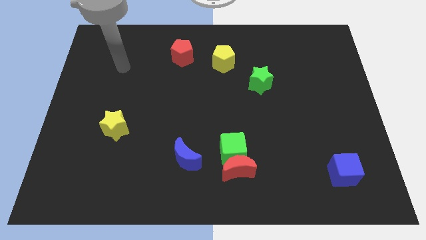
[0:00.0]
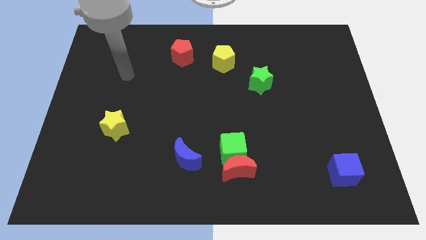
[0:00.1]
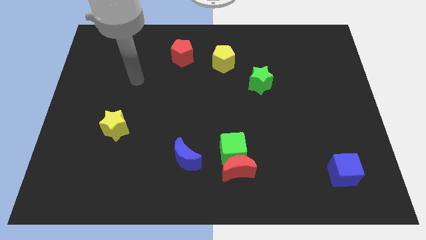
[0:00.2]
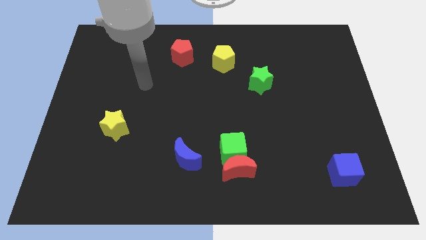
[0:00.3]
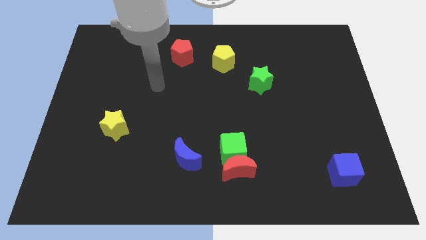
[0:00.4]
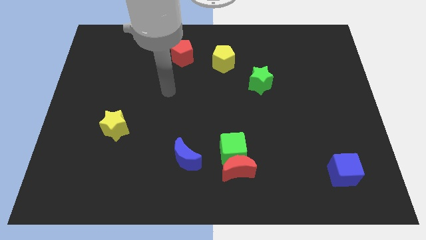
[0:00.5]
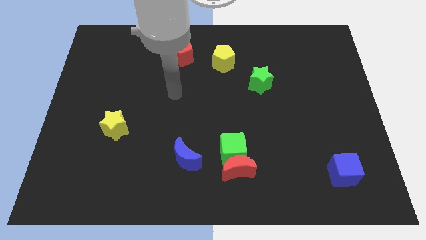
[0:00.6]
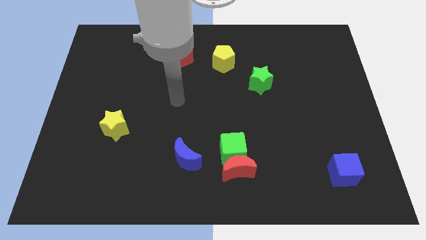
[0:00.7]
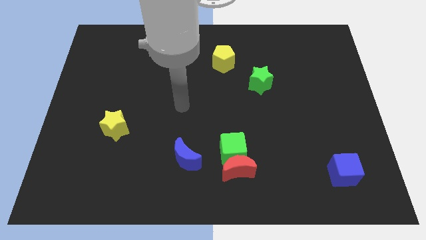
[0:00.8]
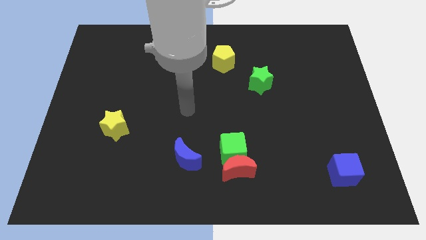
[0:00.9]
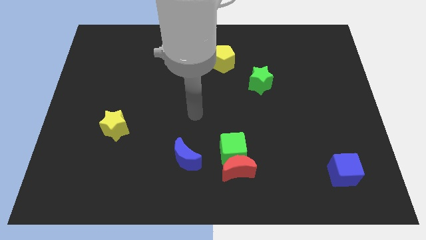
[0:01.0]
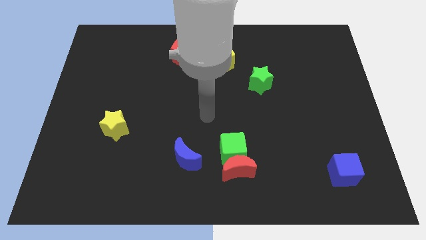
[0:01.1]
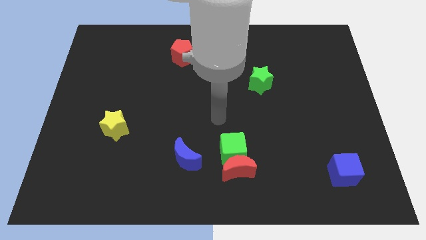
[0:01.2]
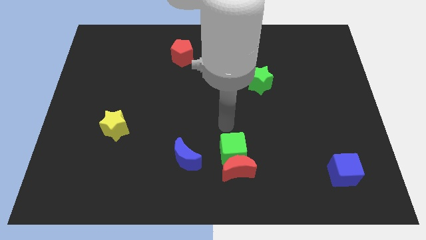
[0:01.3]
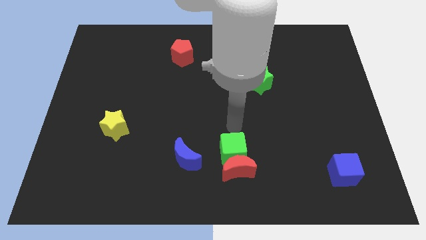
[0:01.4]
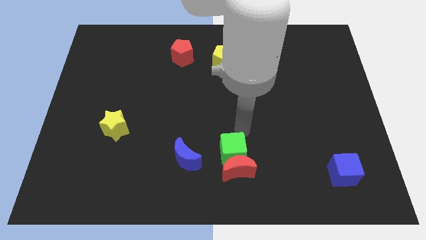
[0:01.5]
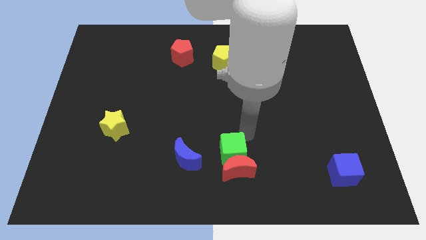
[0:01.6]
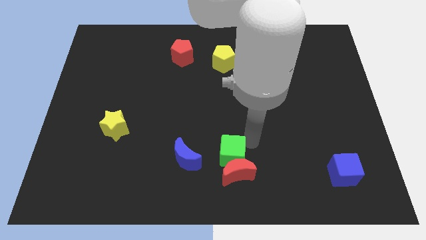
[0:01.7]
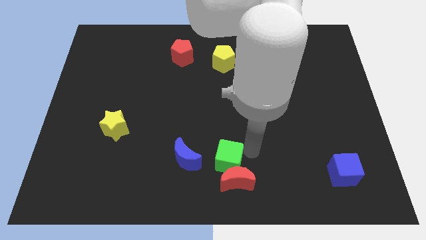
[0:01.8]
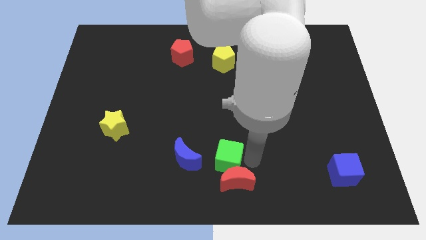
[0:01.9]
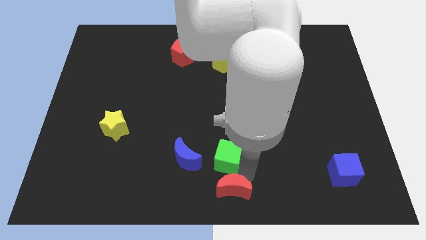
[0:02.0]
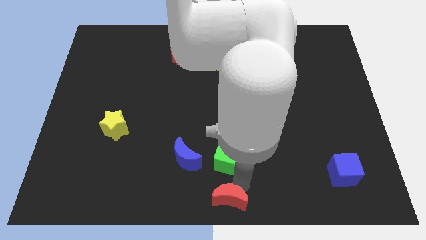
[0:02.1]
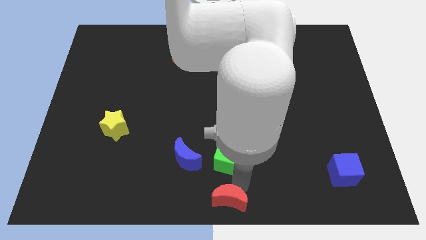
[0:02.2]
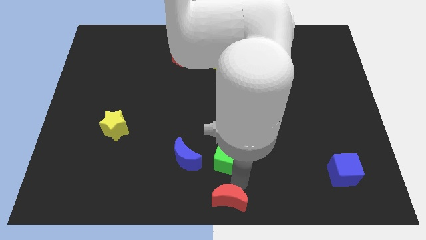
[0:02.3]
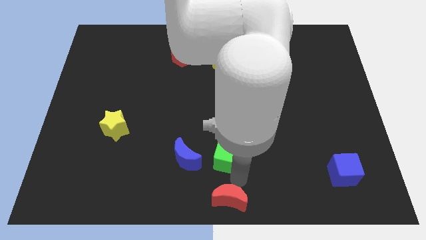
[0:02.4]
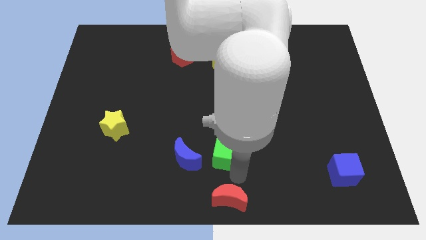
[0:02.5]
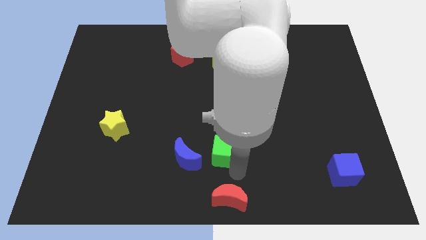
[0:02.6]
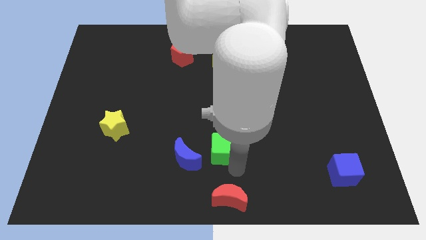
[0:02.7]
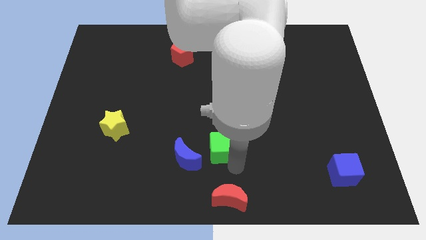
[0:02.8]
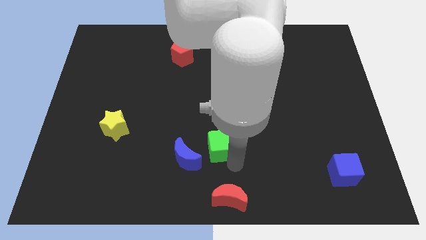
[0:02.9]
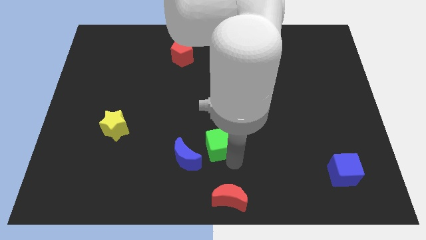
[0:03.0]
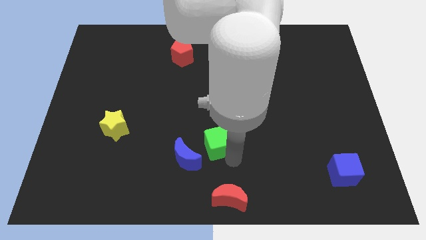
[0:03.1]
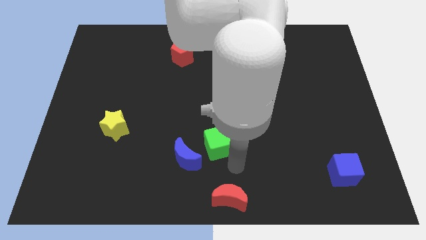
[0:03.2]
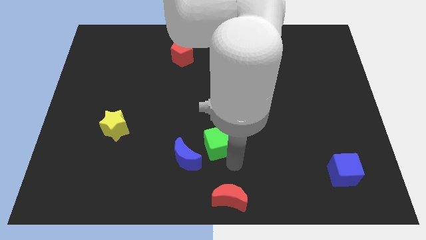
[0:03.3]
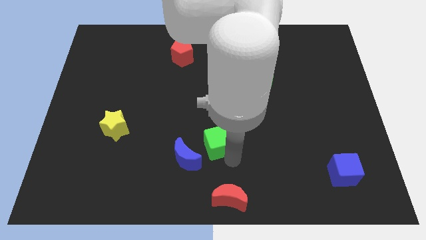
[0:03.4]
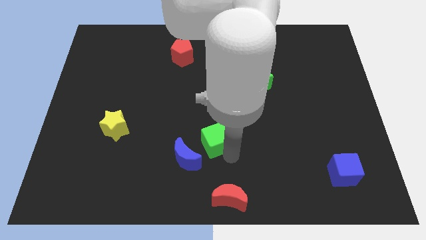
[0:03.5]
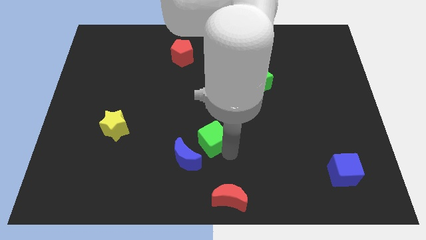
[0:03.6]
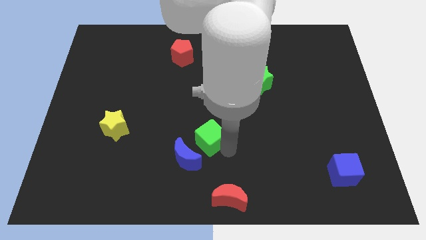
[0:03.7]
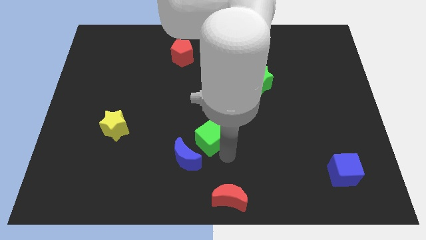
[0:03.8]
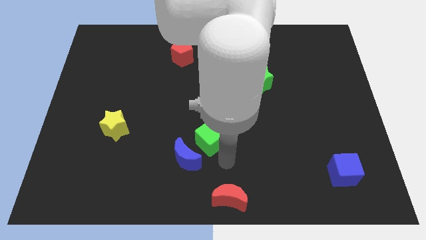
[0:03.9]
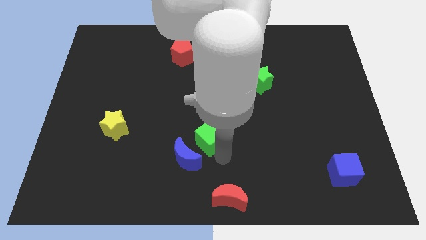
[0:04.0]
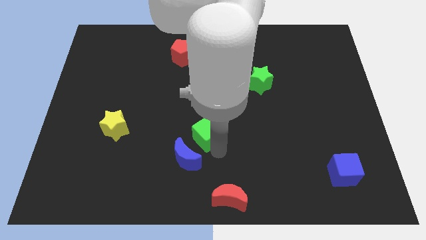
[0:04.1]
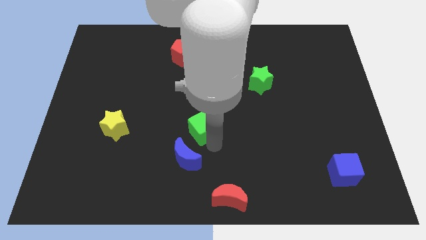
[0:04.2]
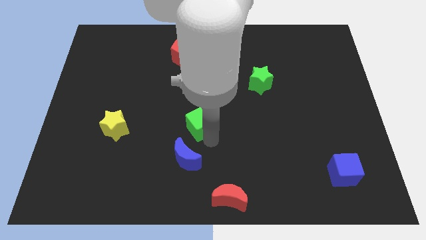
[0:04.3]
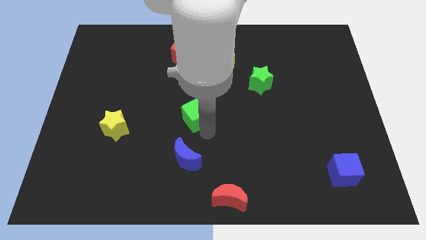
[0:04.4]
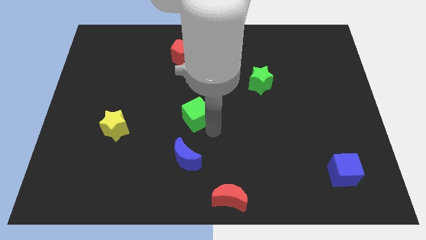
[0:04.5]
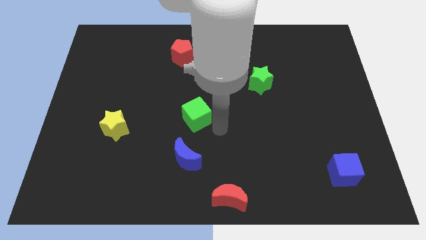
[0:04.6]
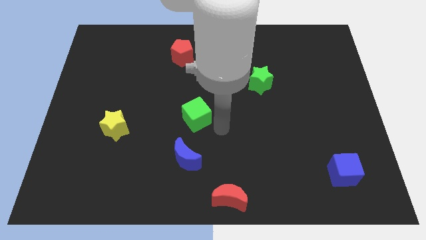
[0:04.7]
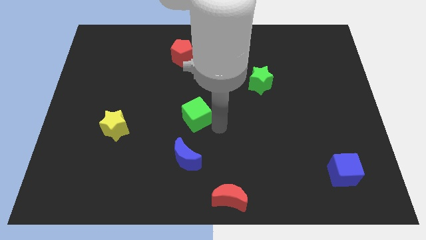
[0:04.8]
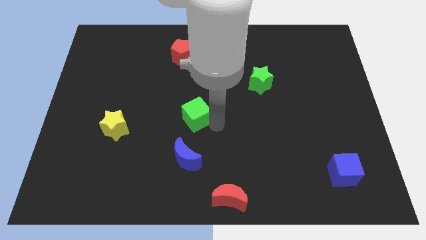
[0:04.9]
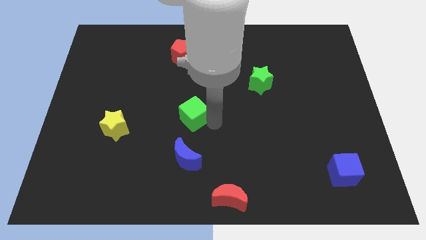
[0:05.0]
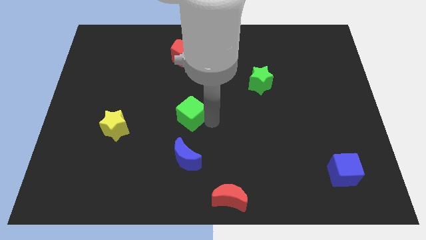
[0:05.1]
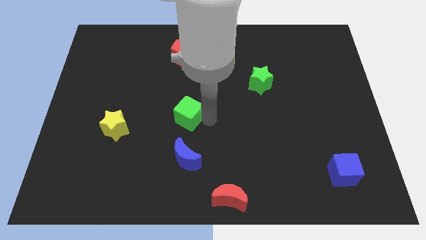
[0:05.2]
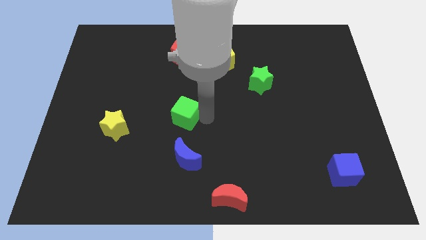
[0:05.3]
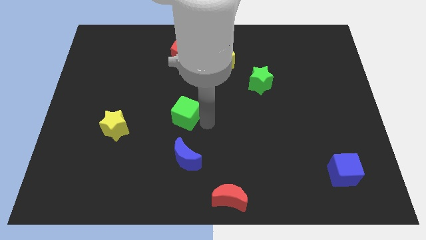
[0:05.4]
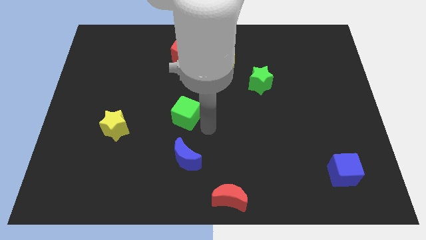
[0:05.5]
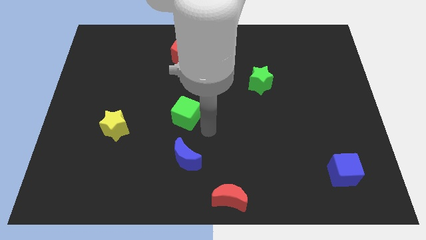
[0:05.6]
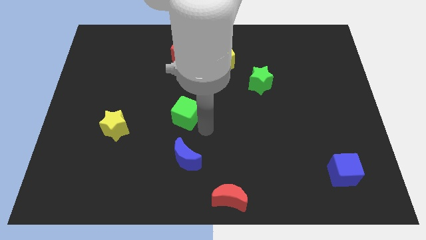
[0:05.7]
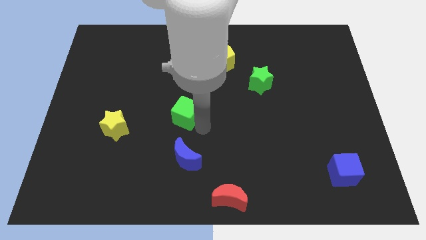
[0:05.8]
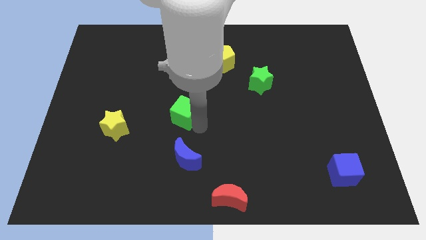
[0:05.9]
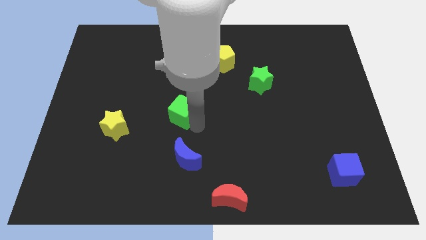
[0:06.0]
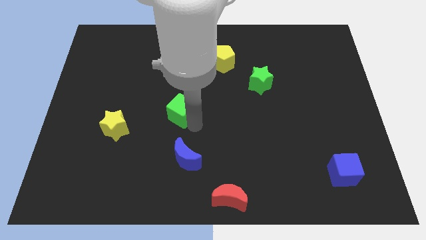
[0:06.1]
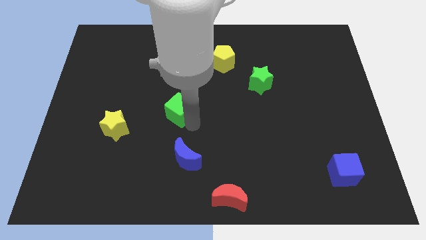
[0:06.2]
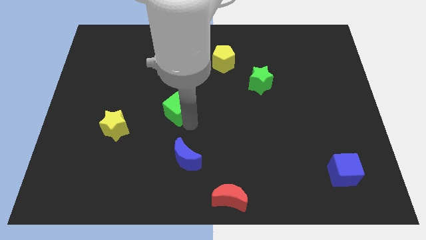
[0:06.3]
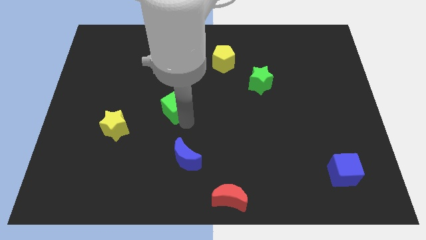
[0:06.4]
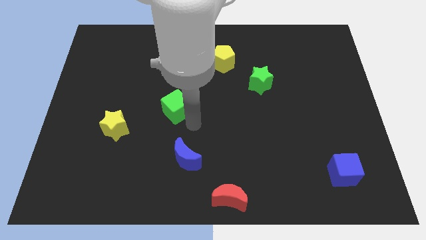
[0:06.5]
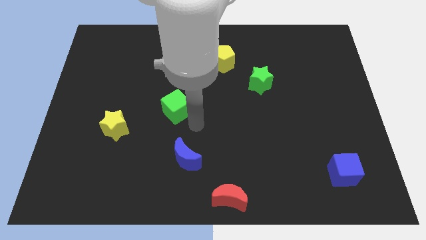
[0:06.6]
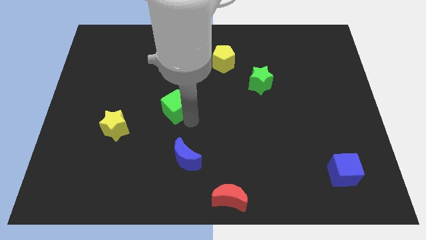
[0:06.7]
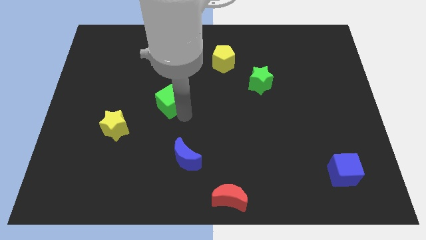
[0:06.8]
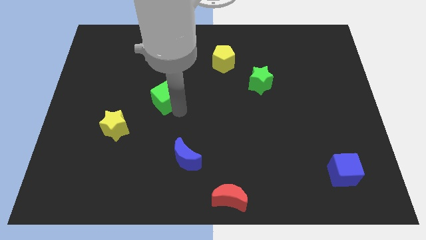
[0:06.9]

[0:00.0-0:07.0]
move the green cube up and to the left

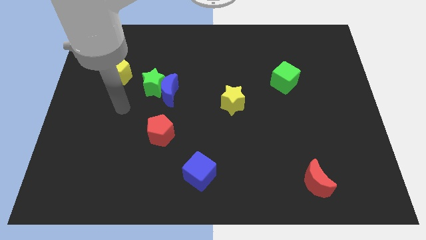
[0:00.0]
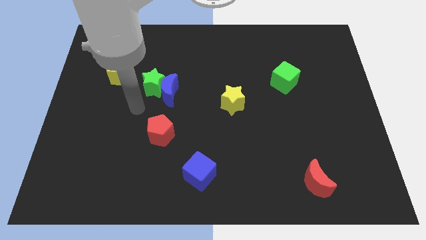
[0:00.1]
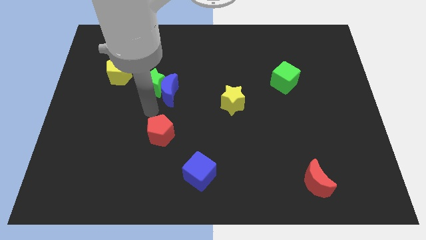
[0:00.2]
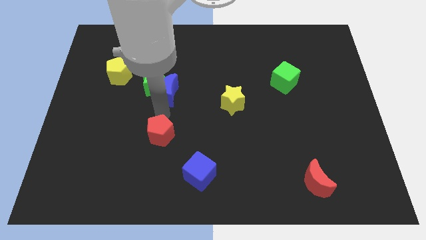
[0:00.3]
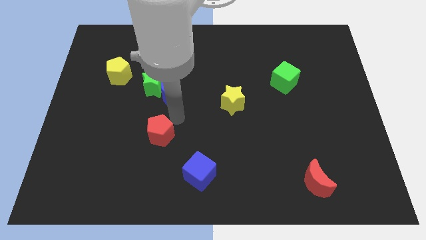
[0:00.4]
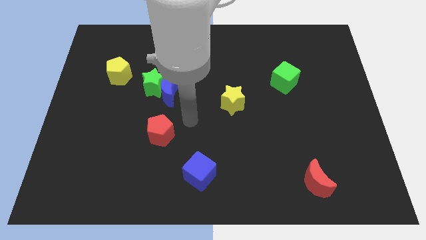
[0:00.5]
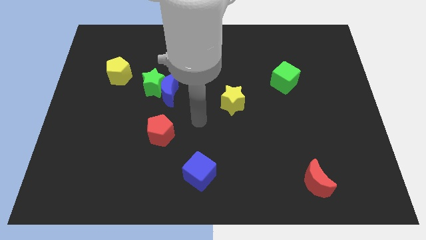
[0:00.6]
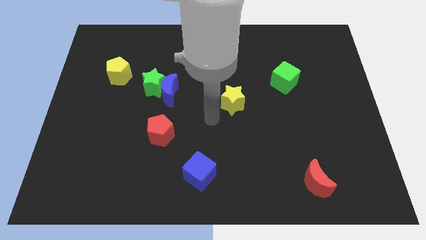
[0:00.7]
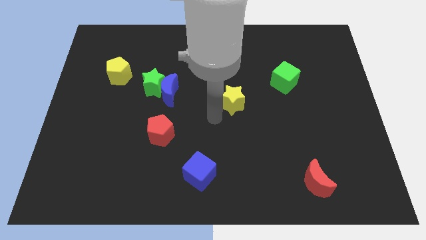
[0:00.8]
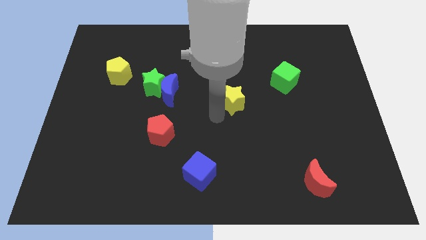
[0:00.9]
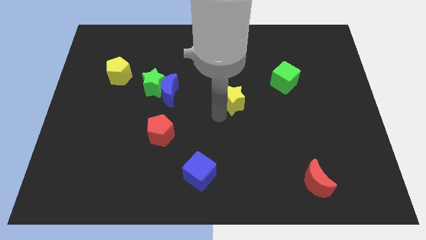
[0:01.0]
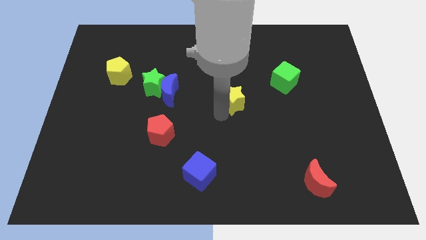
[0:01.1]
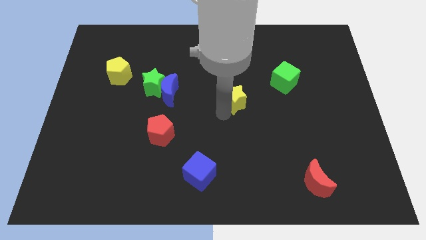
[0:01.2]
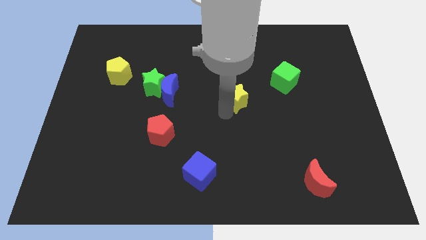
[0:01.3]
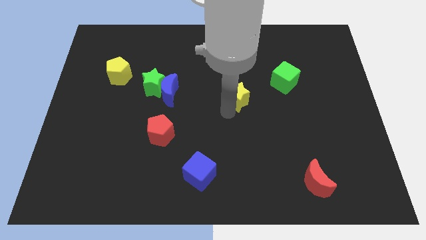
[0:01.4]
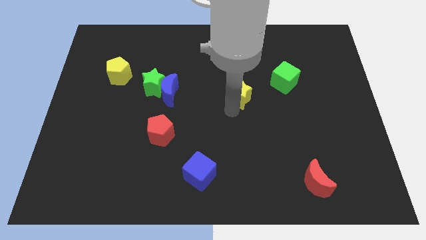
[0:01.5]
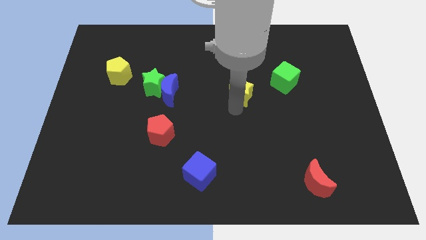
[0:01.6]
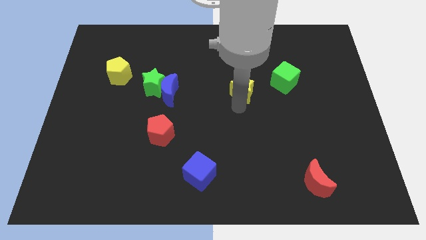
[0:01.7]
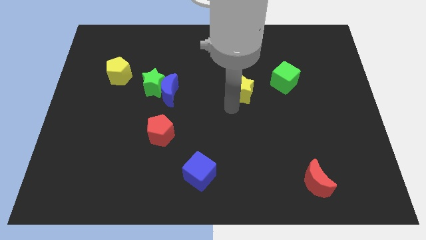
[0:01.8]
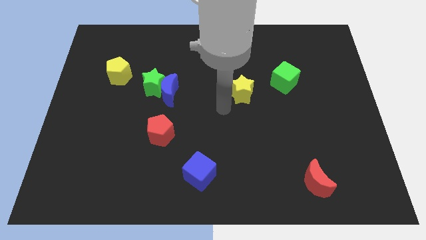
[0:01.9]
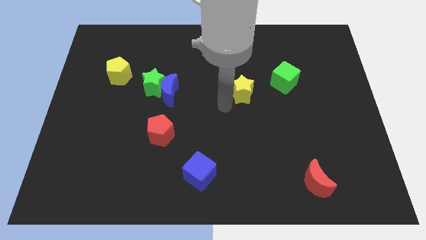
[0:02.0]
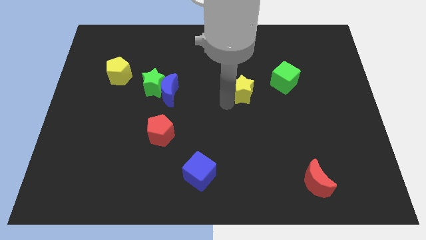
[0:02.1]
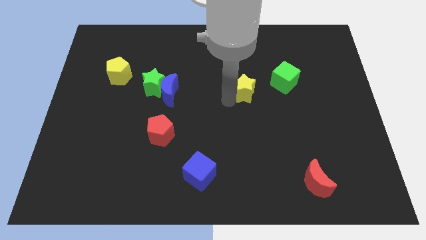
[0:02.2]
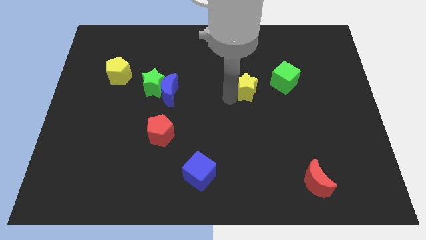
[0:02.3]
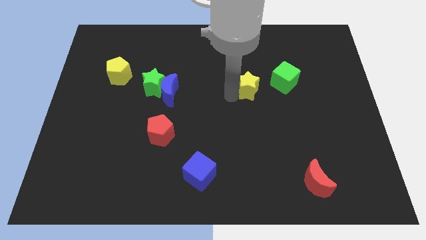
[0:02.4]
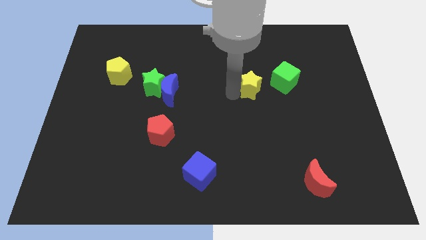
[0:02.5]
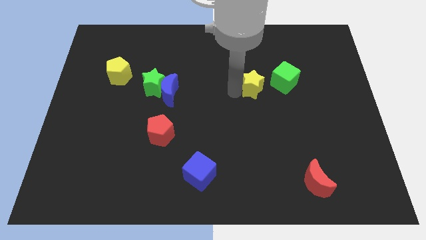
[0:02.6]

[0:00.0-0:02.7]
slightly move the yellow star upwards and to the right diagonally
